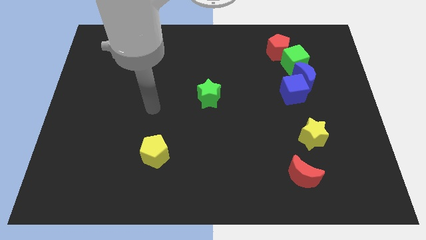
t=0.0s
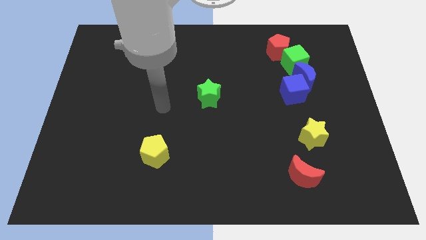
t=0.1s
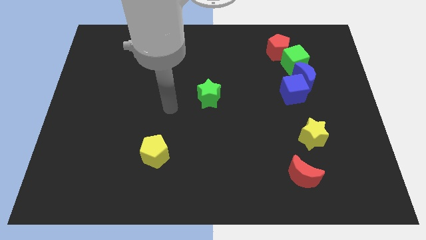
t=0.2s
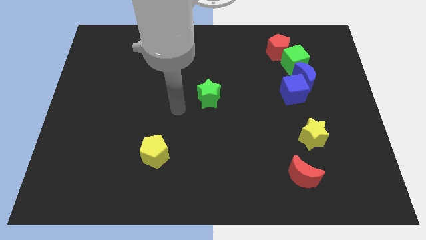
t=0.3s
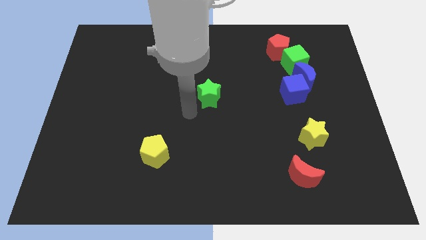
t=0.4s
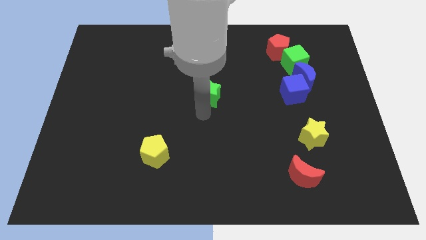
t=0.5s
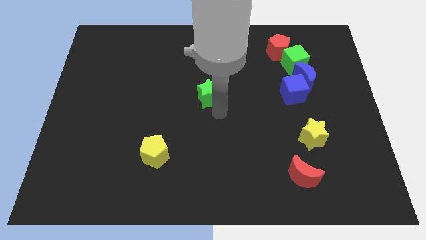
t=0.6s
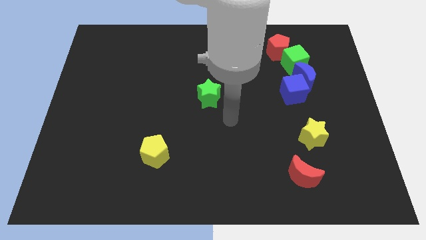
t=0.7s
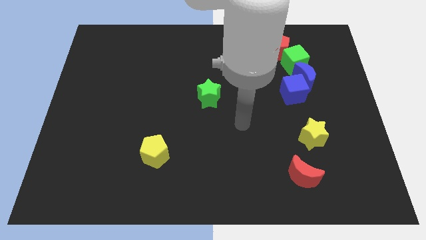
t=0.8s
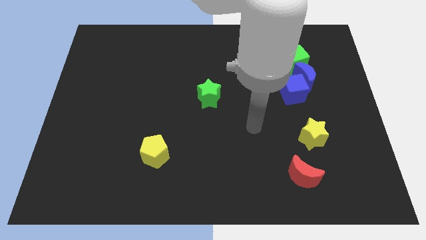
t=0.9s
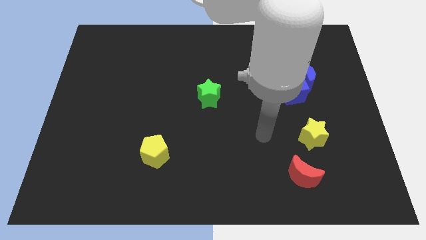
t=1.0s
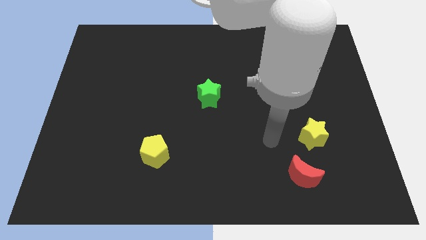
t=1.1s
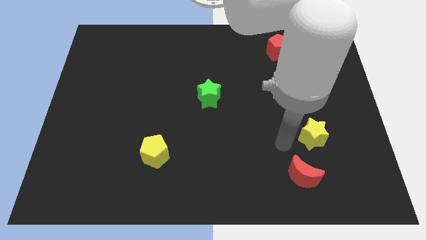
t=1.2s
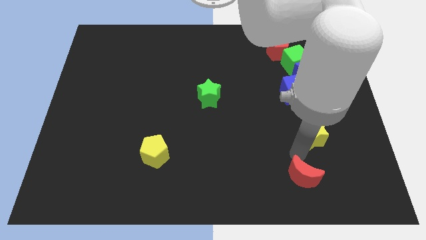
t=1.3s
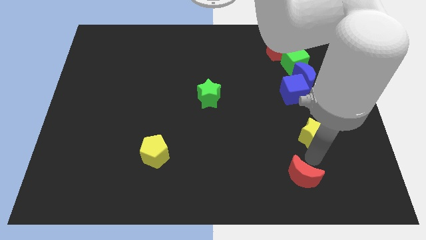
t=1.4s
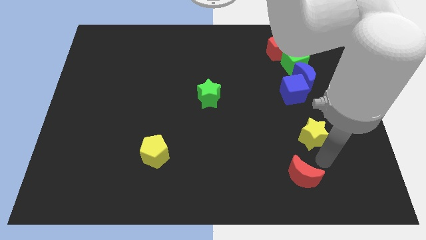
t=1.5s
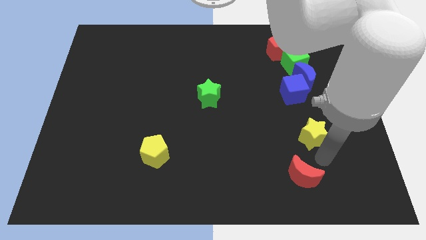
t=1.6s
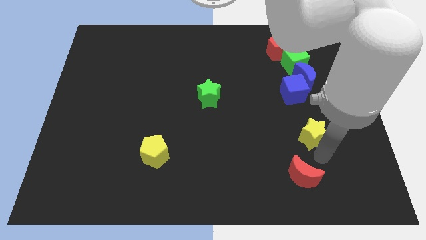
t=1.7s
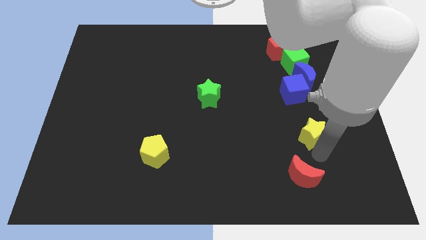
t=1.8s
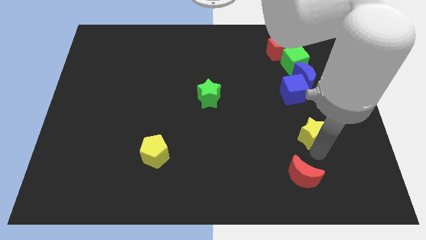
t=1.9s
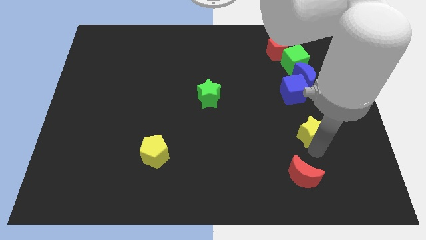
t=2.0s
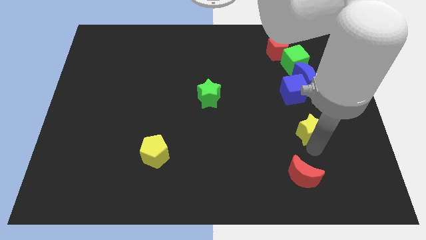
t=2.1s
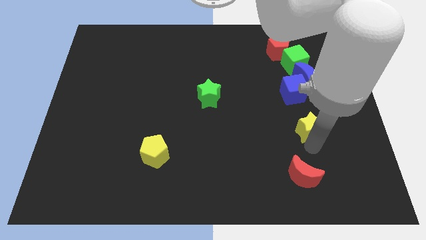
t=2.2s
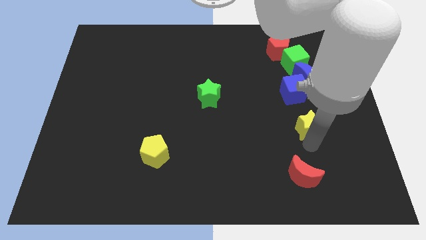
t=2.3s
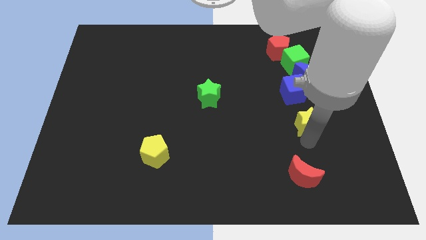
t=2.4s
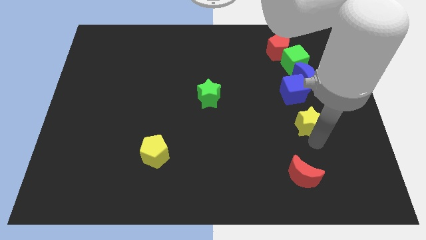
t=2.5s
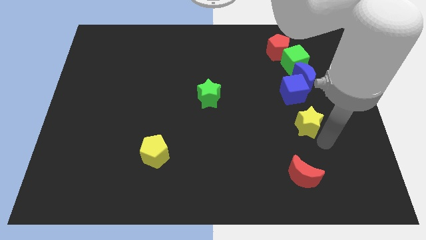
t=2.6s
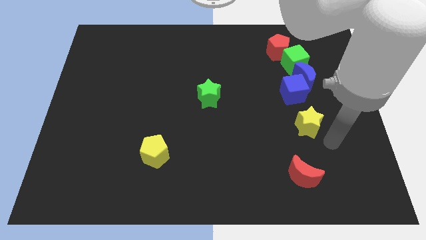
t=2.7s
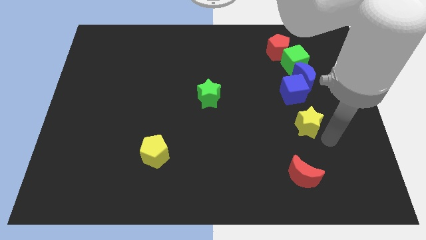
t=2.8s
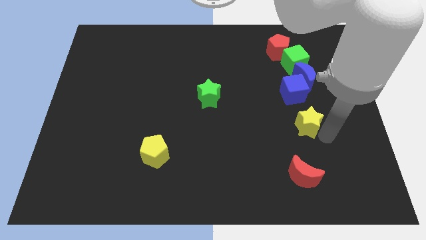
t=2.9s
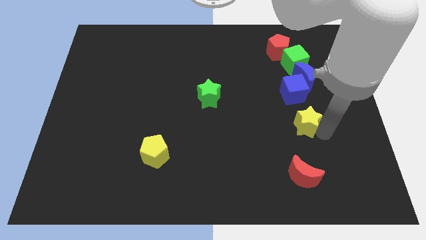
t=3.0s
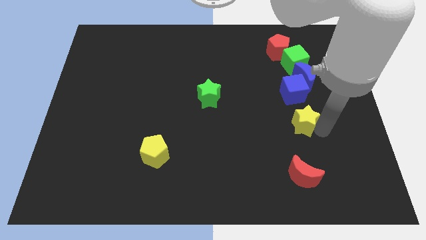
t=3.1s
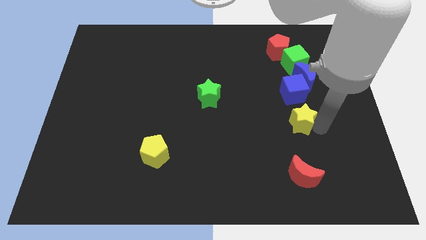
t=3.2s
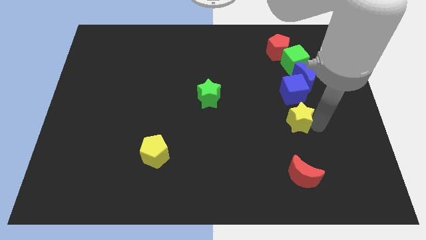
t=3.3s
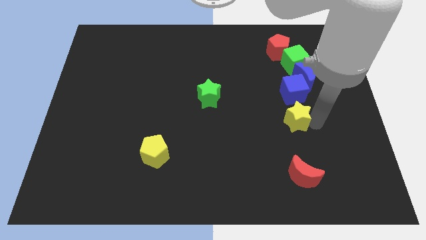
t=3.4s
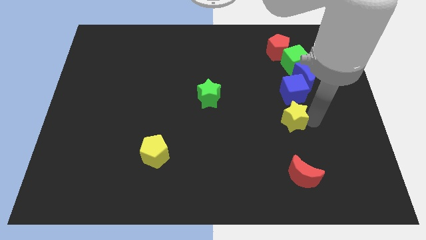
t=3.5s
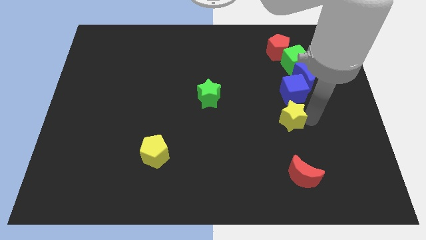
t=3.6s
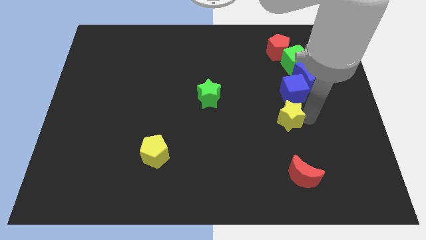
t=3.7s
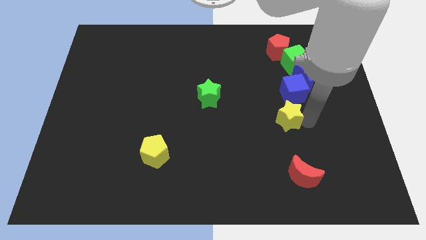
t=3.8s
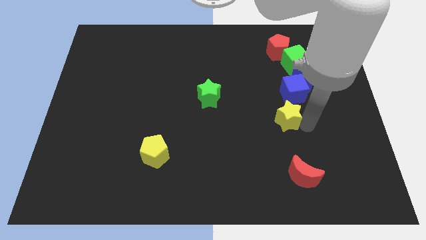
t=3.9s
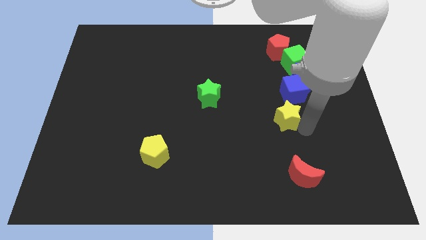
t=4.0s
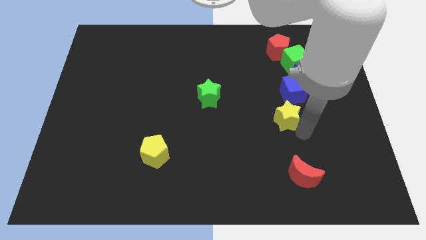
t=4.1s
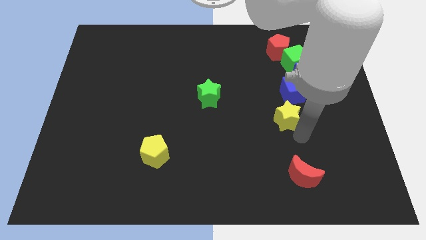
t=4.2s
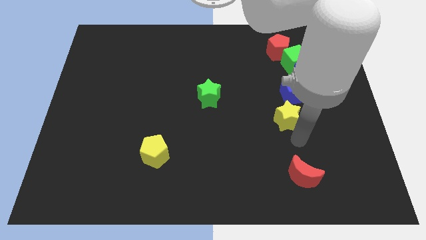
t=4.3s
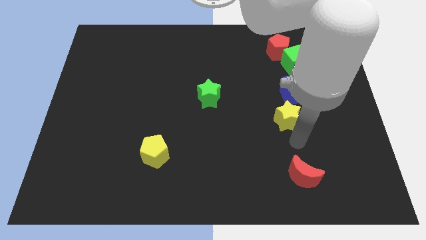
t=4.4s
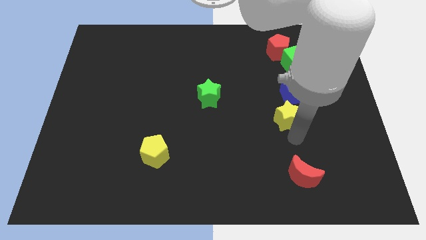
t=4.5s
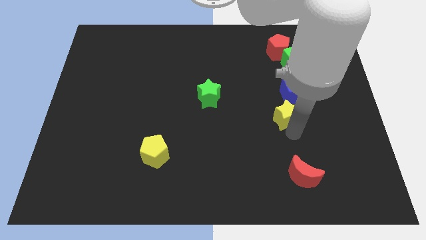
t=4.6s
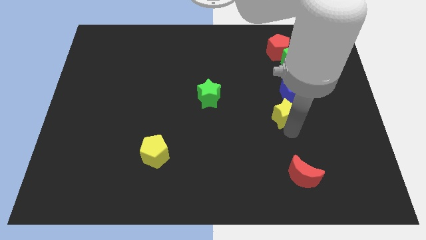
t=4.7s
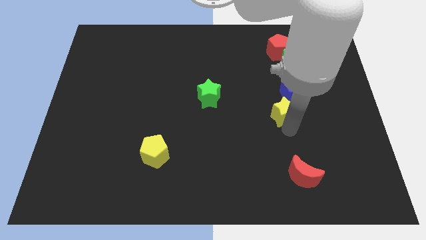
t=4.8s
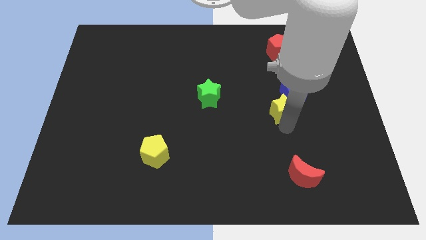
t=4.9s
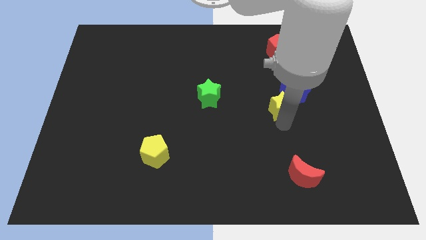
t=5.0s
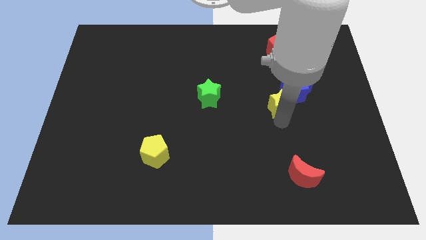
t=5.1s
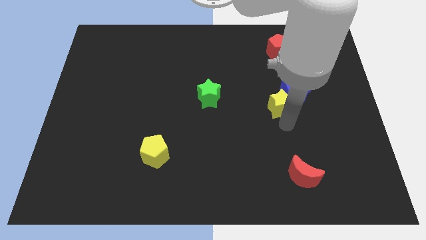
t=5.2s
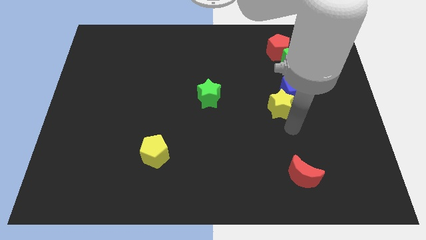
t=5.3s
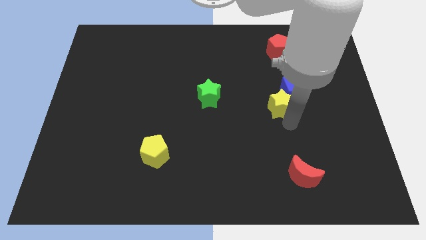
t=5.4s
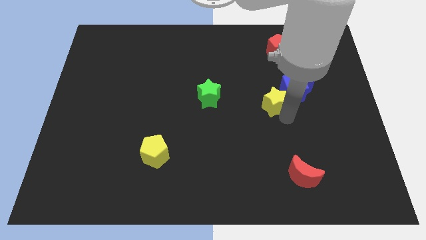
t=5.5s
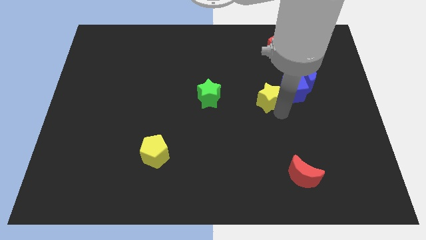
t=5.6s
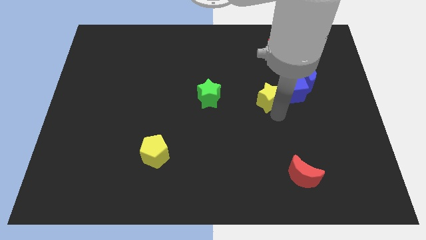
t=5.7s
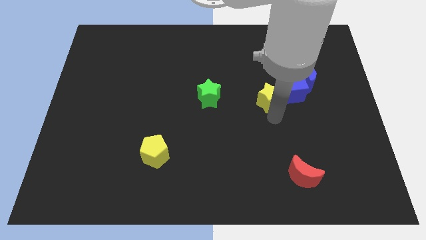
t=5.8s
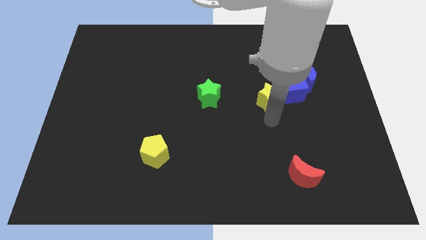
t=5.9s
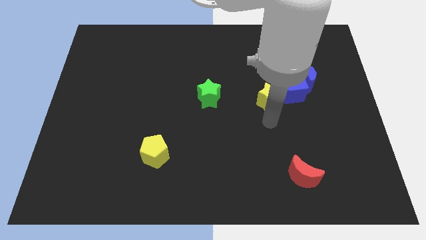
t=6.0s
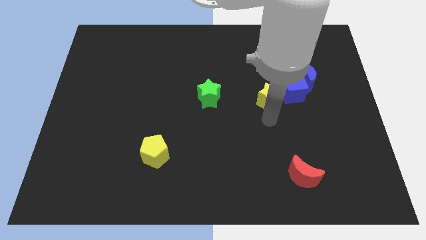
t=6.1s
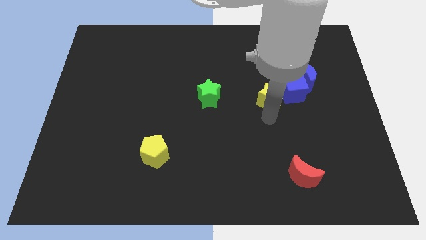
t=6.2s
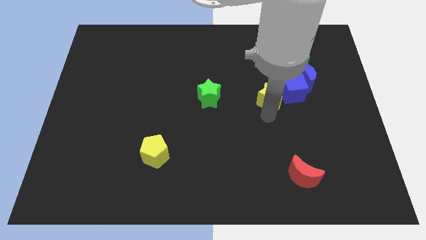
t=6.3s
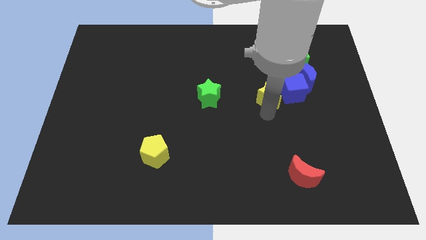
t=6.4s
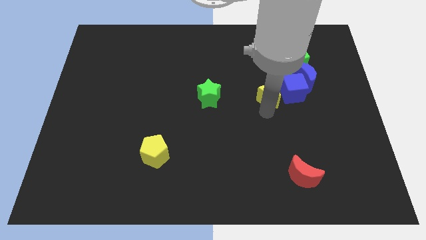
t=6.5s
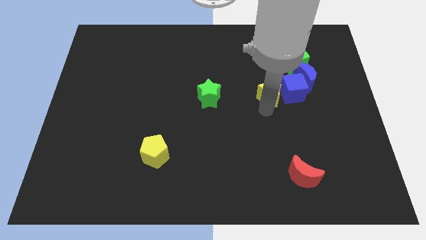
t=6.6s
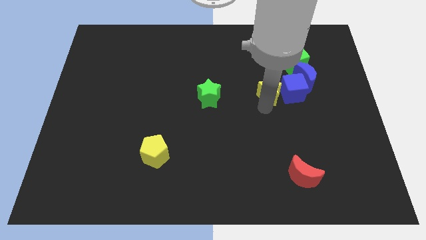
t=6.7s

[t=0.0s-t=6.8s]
put the yellow star to the top left of the blue cube
